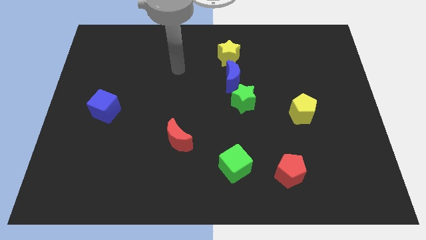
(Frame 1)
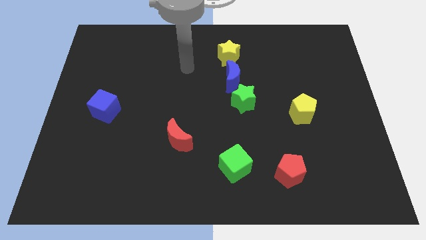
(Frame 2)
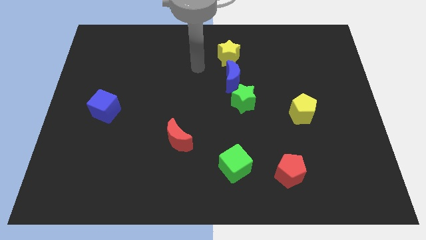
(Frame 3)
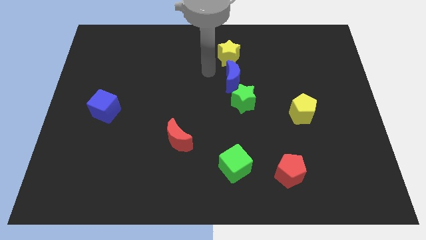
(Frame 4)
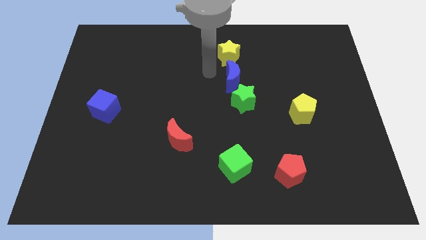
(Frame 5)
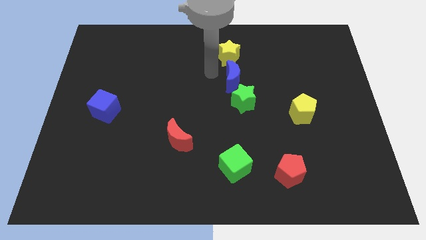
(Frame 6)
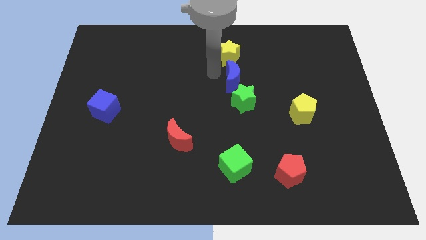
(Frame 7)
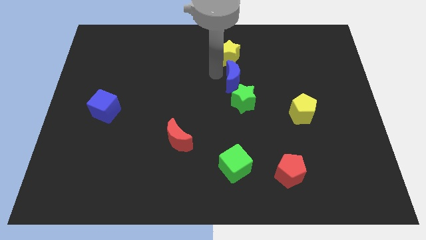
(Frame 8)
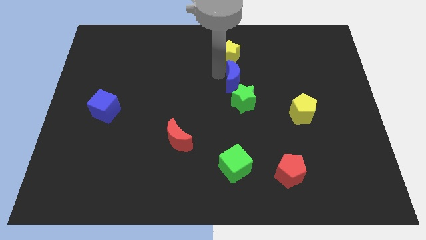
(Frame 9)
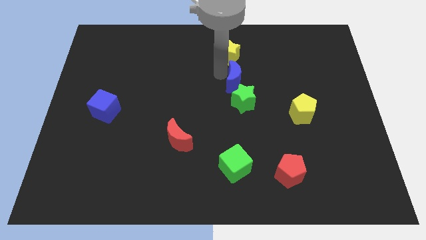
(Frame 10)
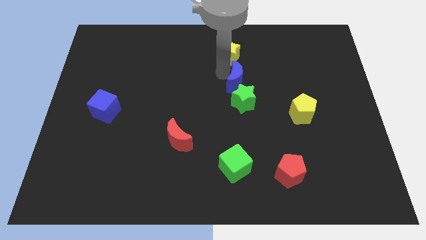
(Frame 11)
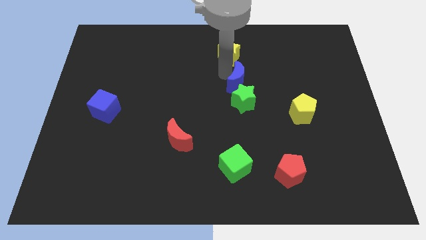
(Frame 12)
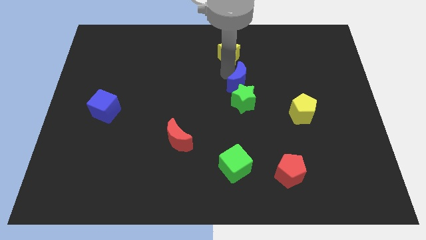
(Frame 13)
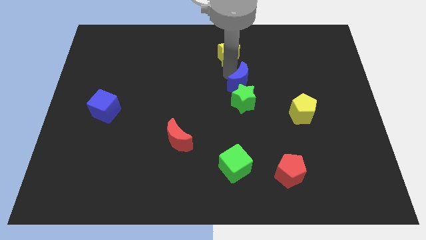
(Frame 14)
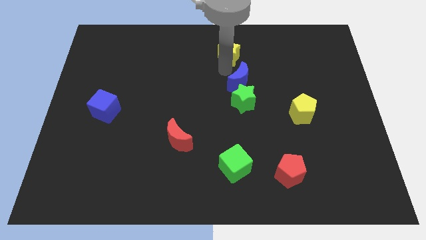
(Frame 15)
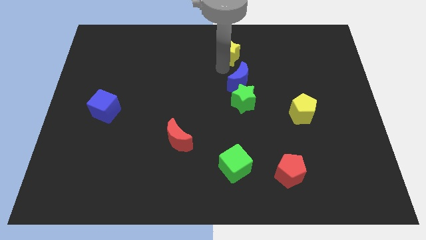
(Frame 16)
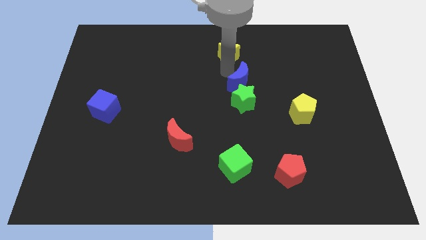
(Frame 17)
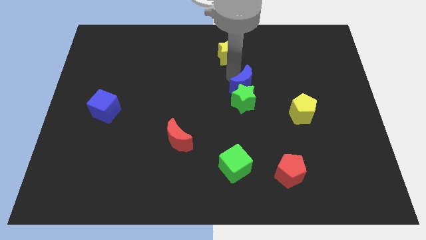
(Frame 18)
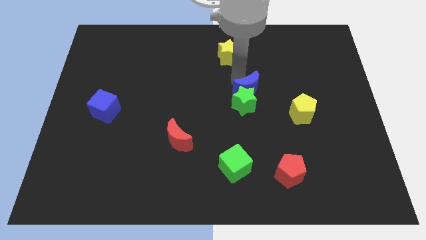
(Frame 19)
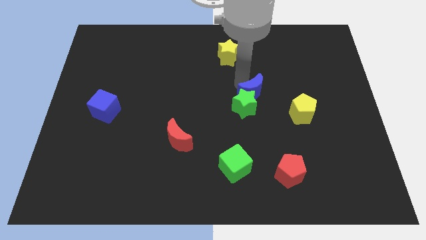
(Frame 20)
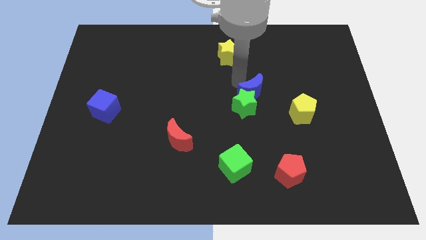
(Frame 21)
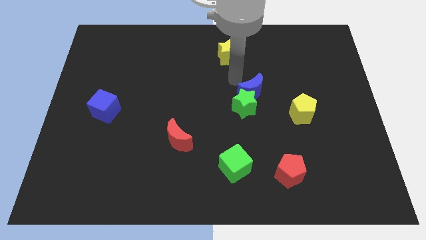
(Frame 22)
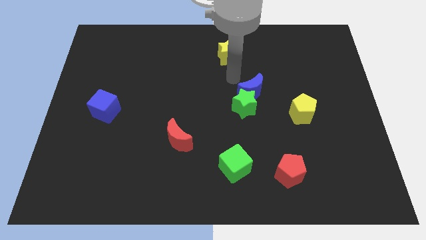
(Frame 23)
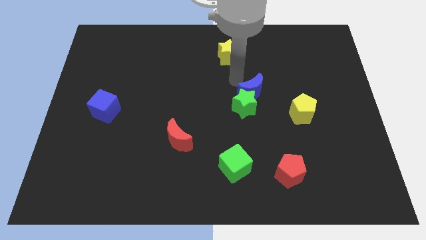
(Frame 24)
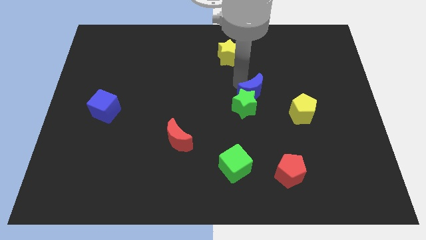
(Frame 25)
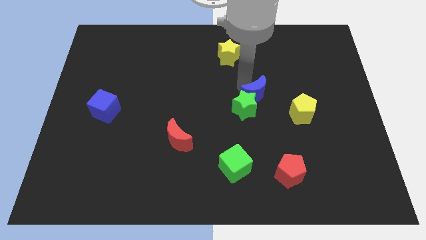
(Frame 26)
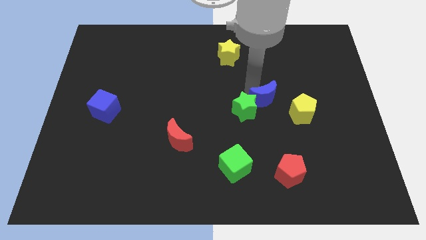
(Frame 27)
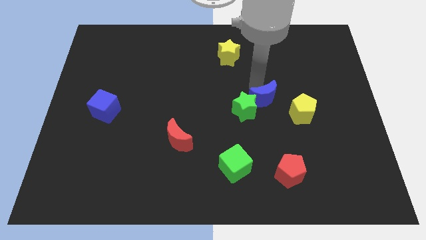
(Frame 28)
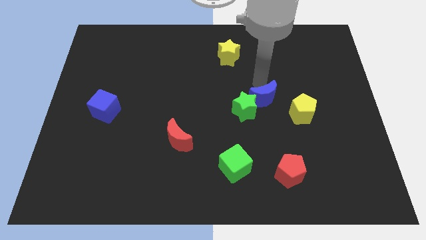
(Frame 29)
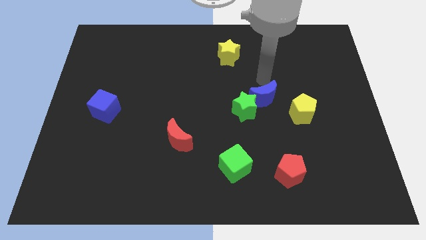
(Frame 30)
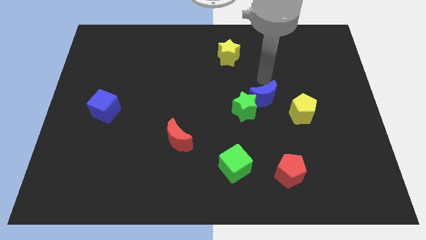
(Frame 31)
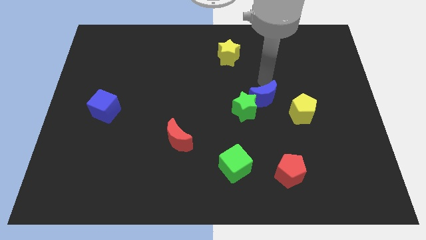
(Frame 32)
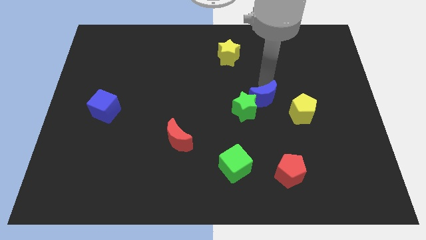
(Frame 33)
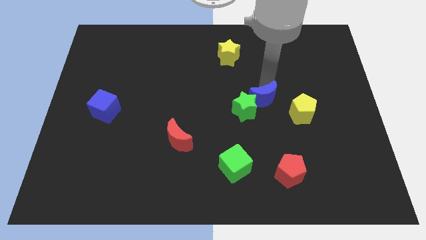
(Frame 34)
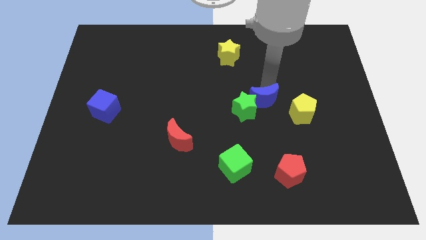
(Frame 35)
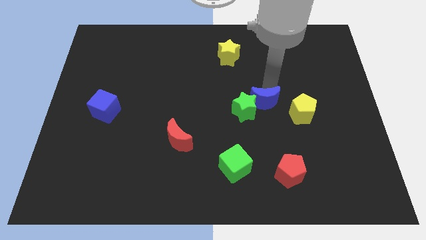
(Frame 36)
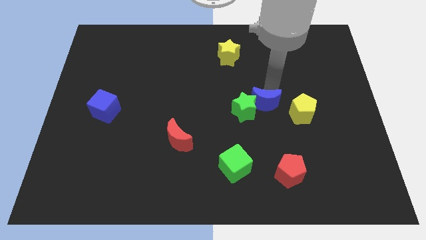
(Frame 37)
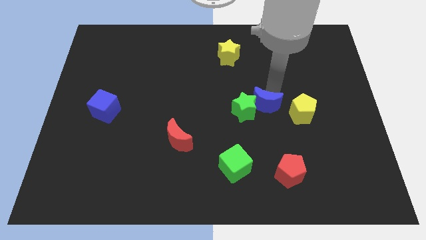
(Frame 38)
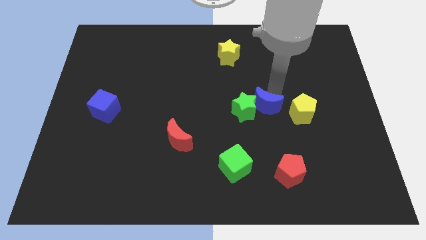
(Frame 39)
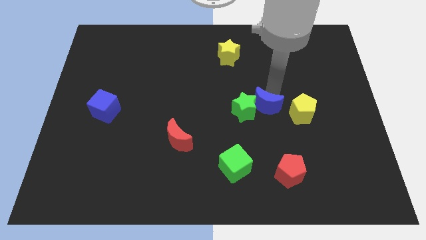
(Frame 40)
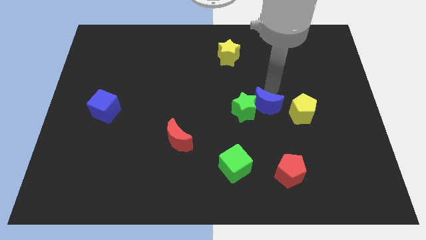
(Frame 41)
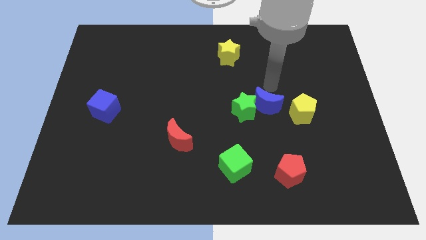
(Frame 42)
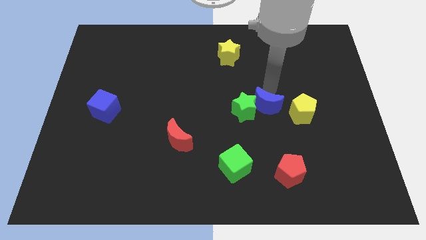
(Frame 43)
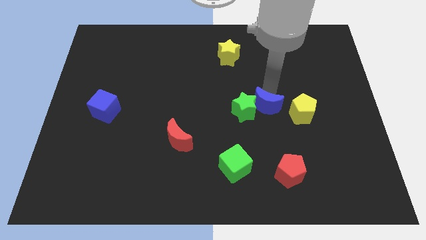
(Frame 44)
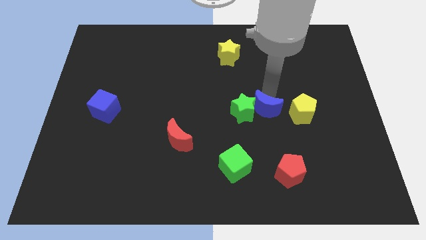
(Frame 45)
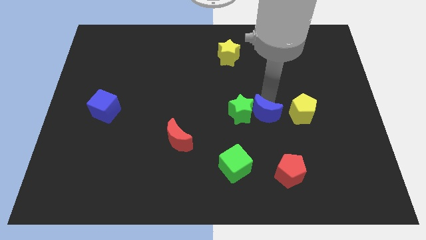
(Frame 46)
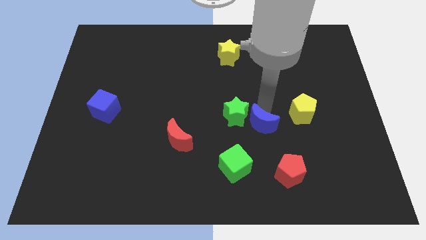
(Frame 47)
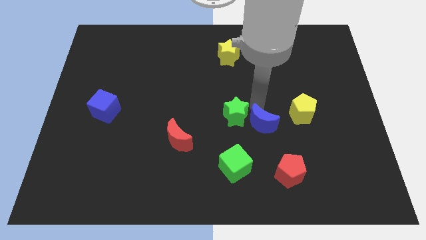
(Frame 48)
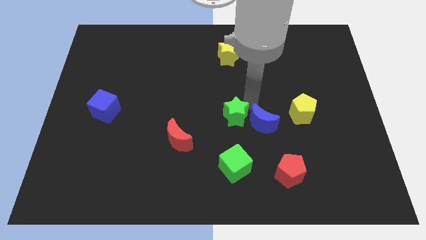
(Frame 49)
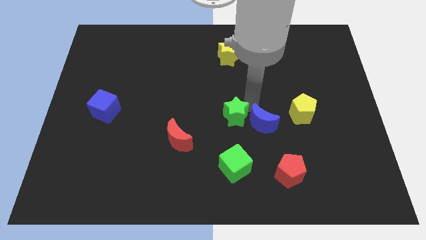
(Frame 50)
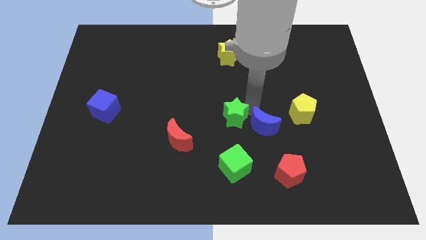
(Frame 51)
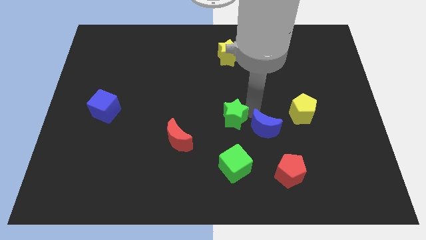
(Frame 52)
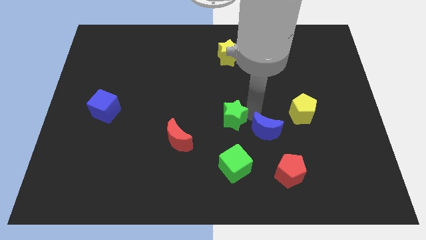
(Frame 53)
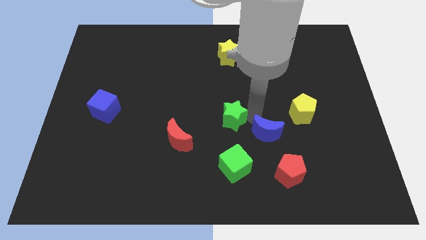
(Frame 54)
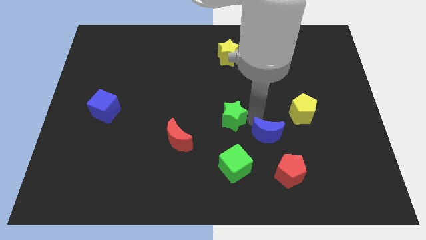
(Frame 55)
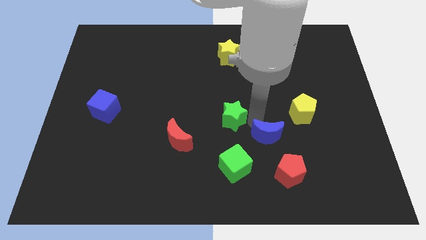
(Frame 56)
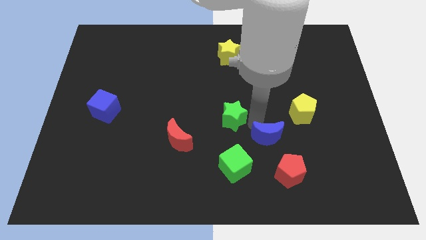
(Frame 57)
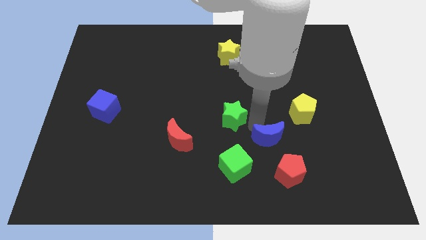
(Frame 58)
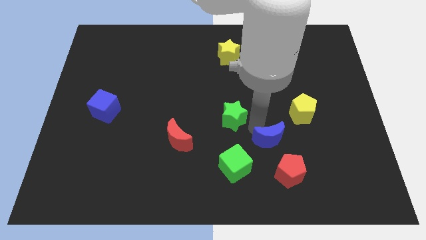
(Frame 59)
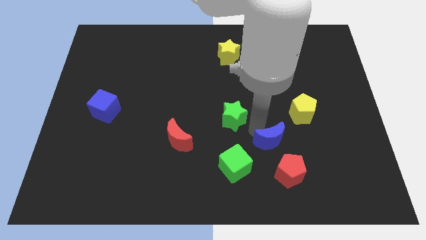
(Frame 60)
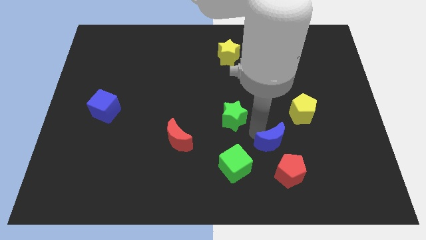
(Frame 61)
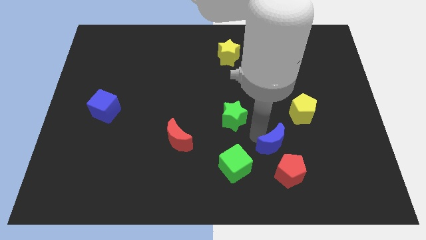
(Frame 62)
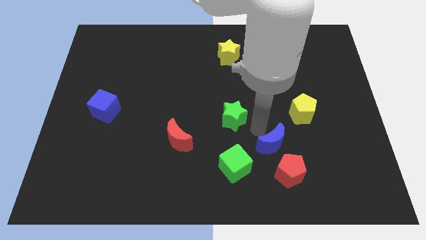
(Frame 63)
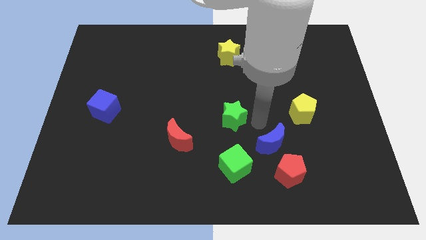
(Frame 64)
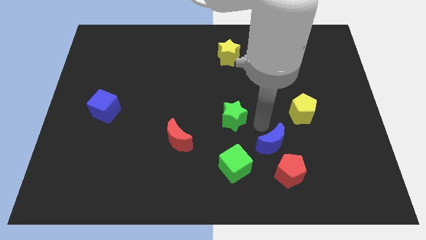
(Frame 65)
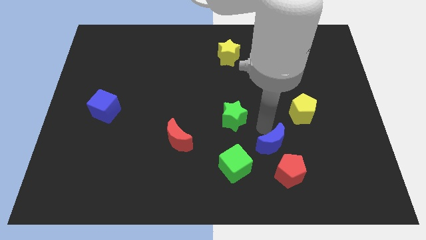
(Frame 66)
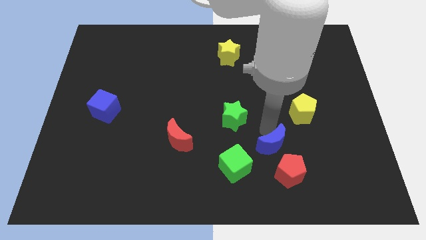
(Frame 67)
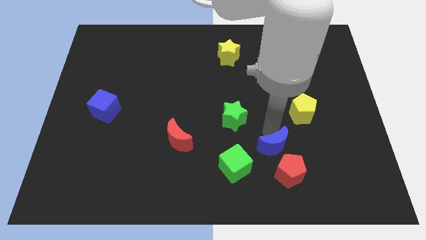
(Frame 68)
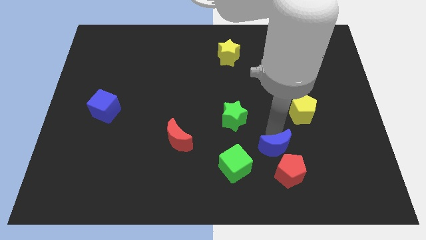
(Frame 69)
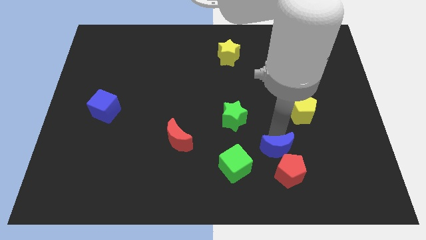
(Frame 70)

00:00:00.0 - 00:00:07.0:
push the blue moon next to the red pentagon
